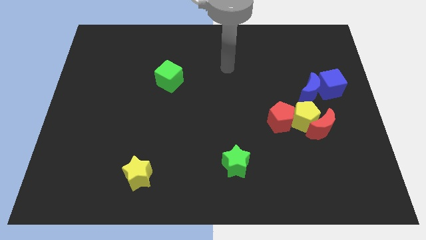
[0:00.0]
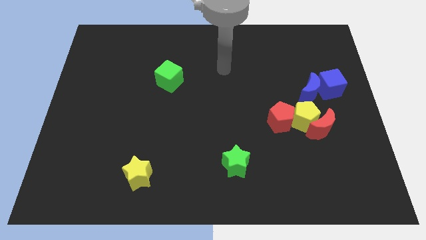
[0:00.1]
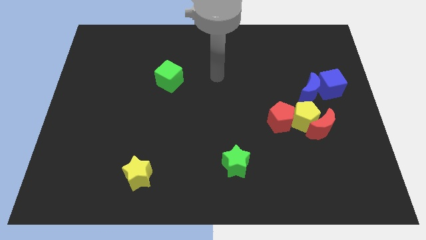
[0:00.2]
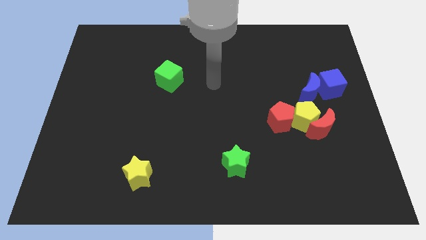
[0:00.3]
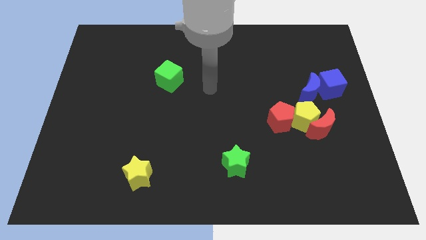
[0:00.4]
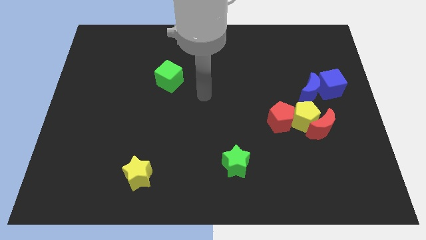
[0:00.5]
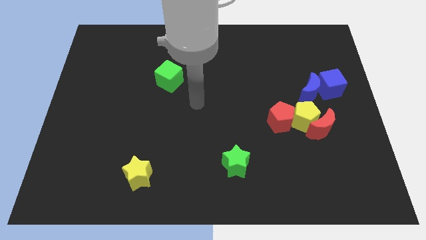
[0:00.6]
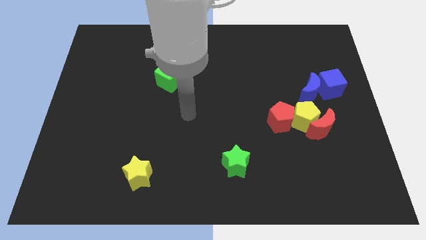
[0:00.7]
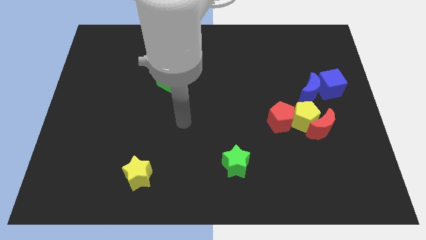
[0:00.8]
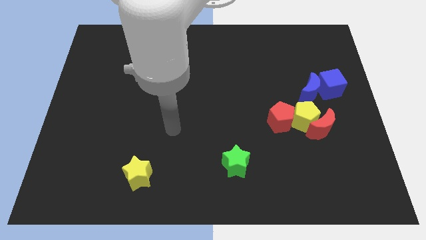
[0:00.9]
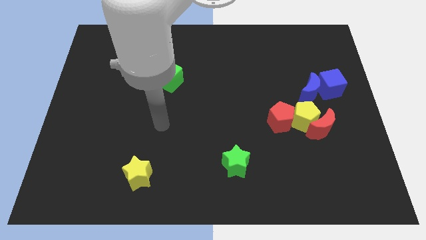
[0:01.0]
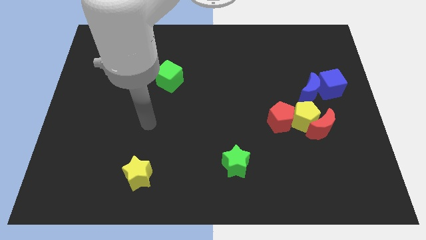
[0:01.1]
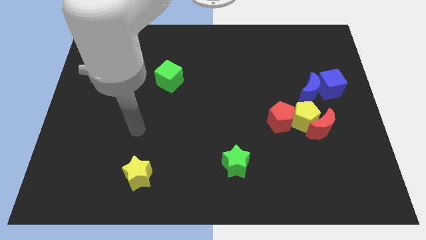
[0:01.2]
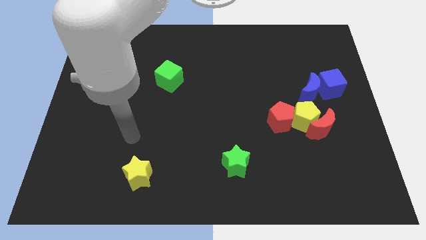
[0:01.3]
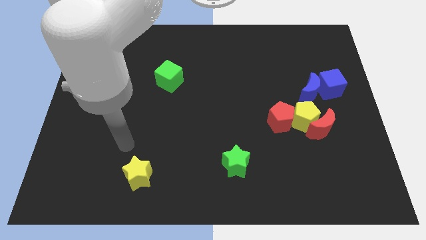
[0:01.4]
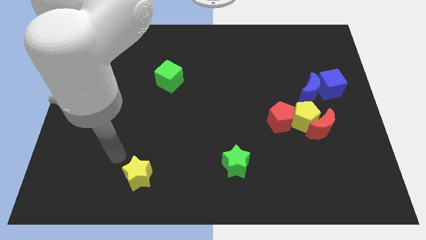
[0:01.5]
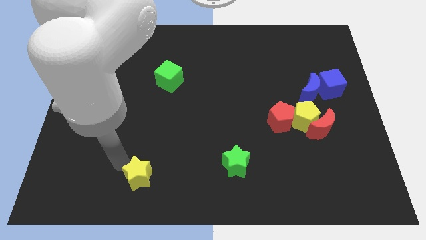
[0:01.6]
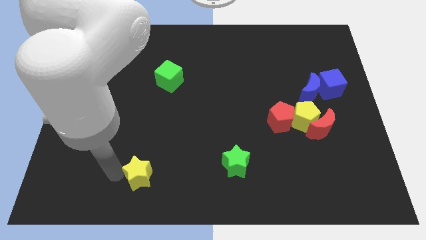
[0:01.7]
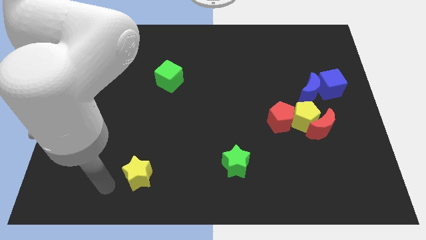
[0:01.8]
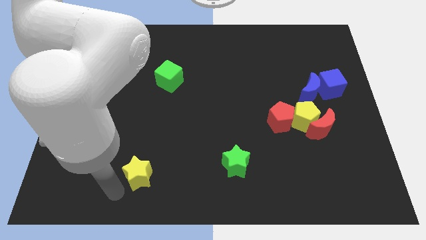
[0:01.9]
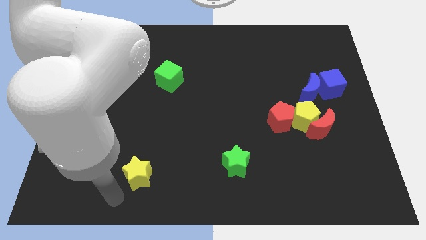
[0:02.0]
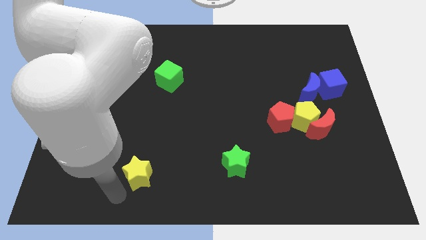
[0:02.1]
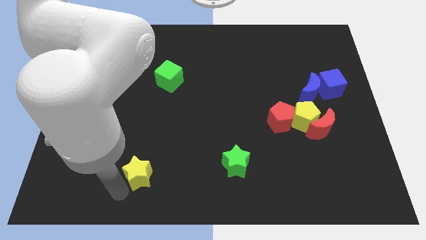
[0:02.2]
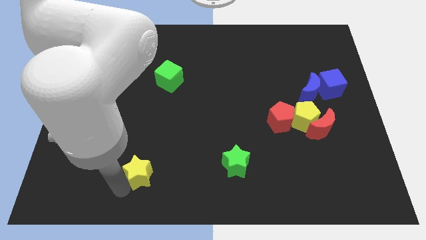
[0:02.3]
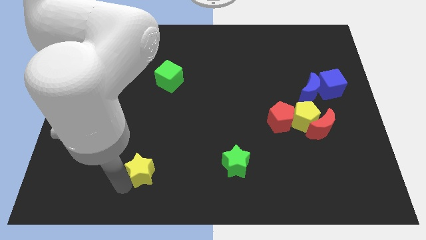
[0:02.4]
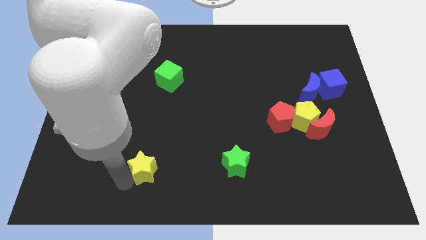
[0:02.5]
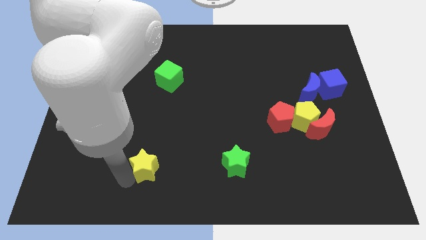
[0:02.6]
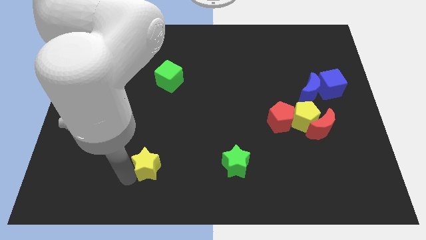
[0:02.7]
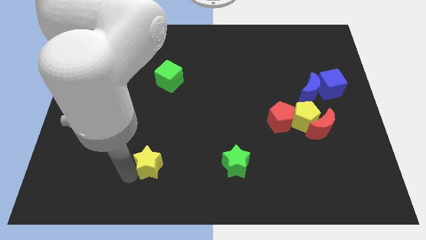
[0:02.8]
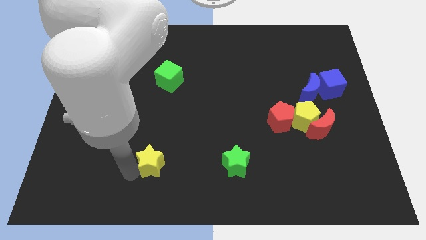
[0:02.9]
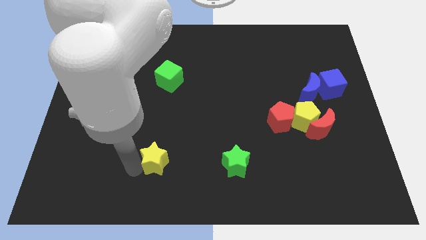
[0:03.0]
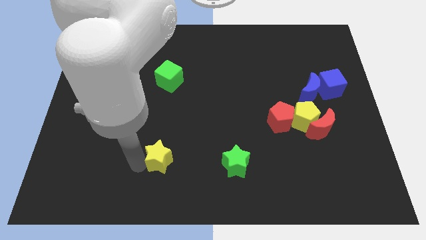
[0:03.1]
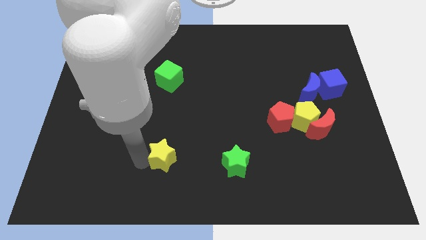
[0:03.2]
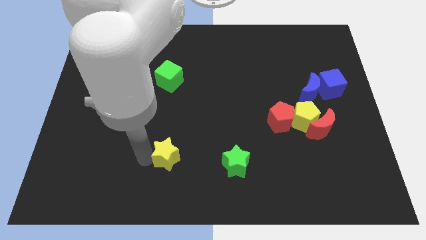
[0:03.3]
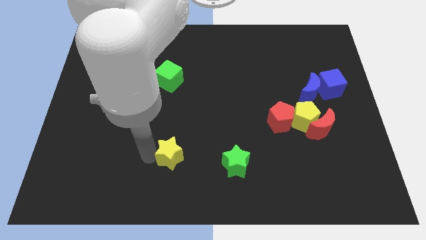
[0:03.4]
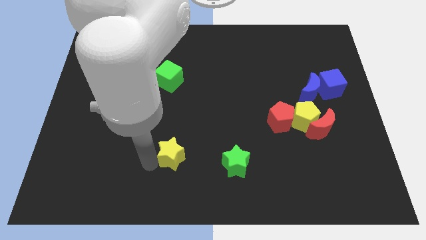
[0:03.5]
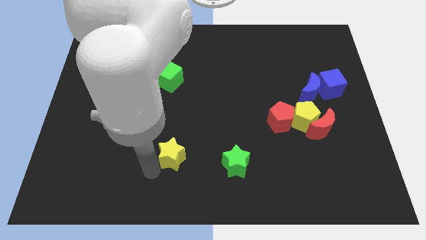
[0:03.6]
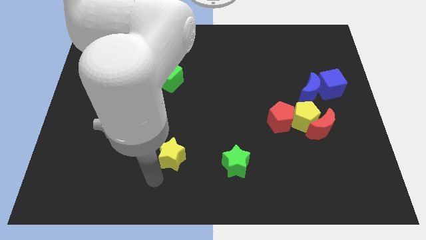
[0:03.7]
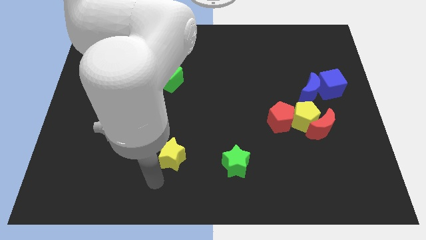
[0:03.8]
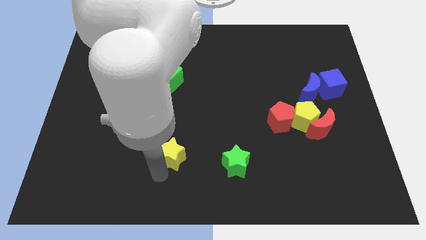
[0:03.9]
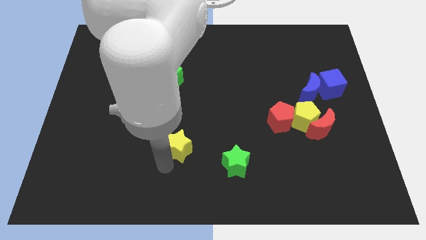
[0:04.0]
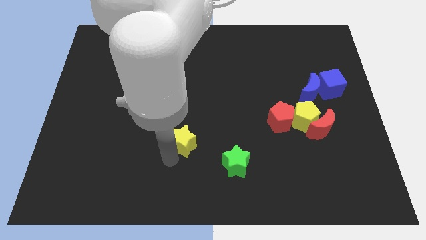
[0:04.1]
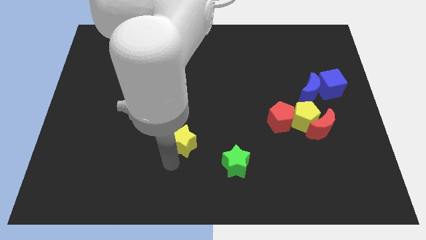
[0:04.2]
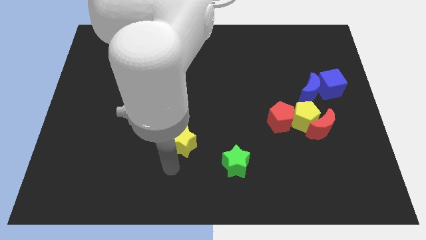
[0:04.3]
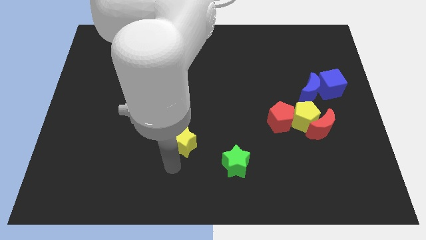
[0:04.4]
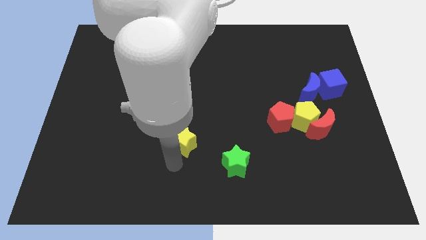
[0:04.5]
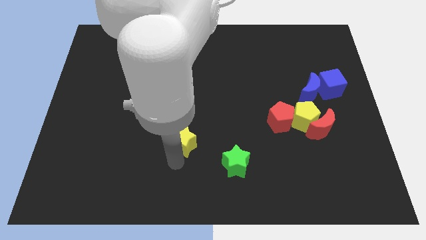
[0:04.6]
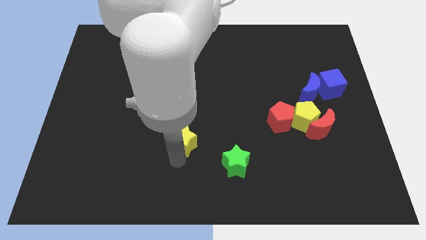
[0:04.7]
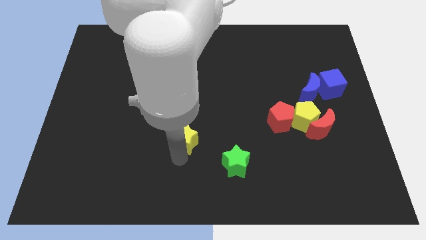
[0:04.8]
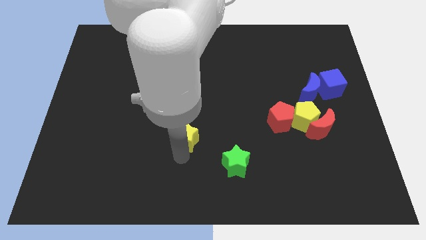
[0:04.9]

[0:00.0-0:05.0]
put the yellow star to the middle of the board

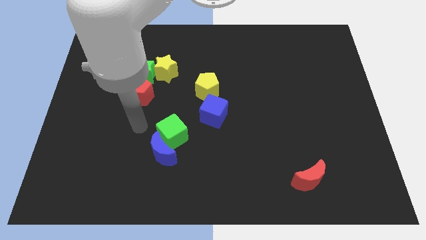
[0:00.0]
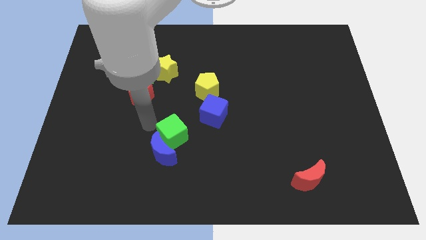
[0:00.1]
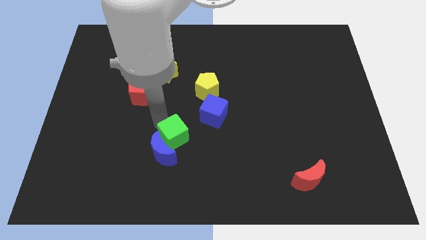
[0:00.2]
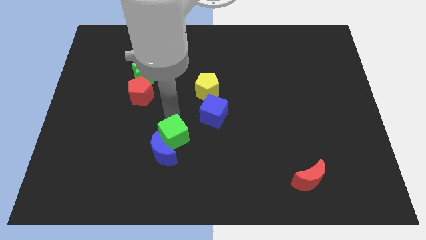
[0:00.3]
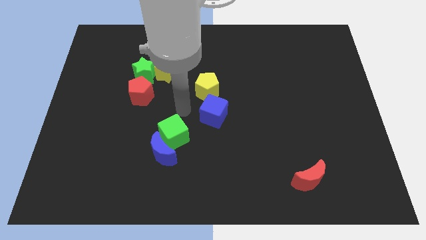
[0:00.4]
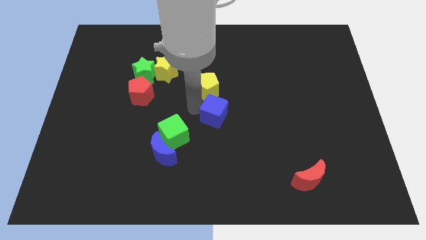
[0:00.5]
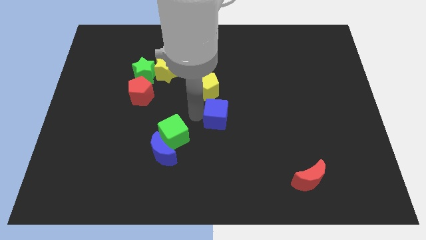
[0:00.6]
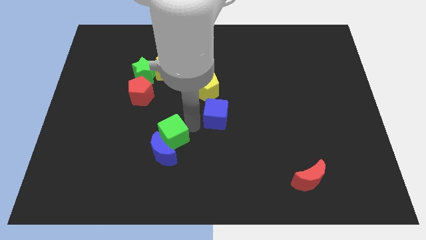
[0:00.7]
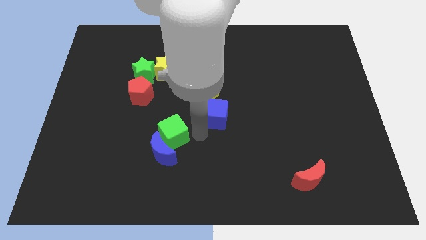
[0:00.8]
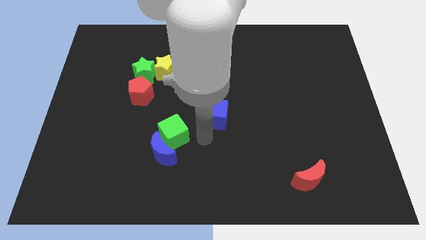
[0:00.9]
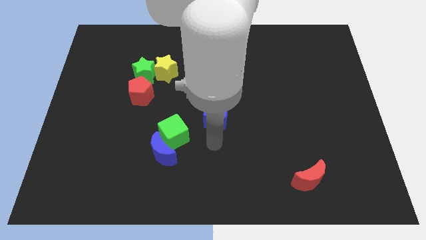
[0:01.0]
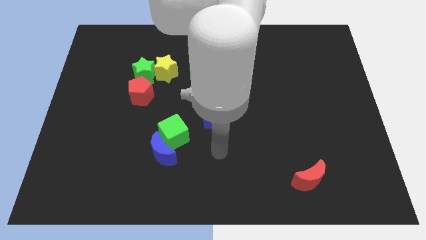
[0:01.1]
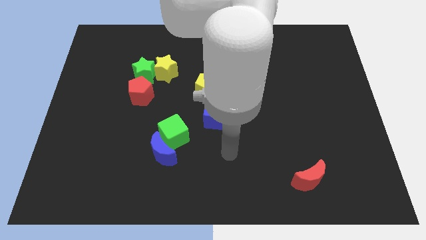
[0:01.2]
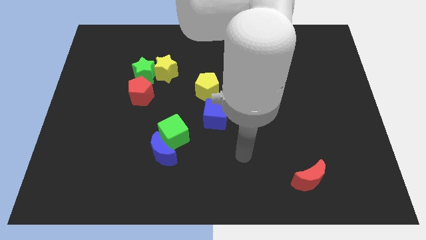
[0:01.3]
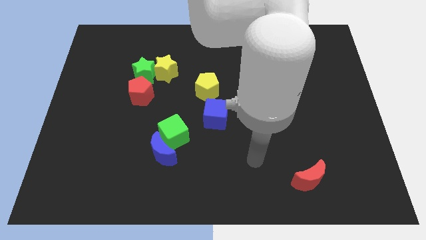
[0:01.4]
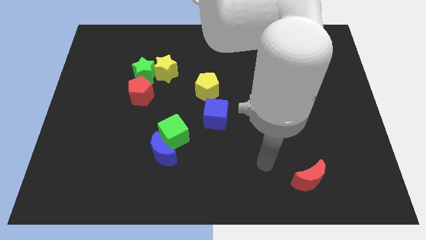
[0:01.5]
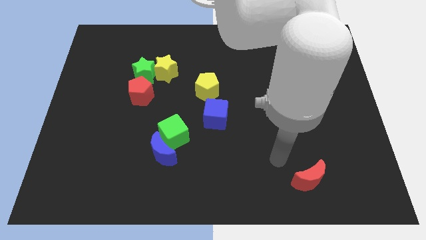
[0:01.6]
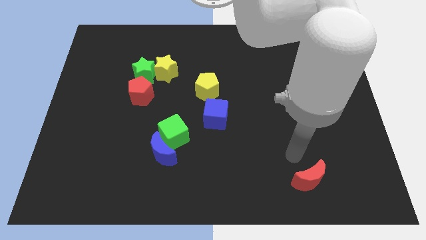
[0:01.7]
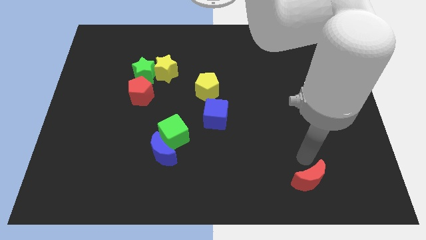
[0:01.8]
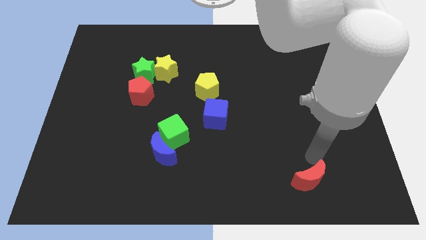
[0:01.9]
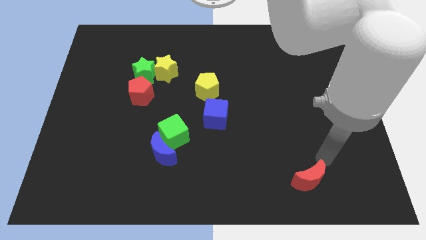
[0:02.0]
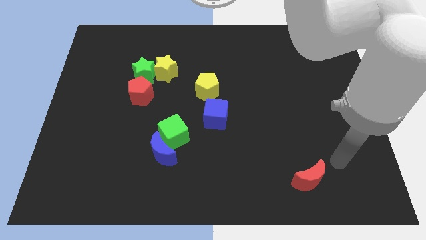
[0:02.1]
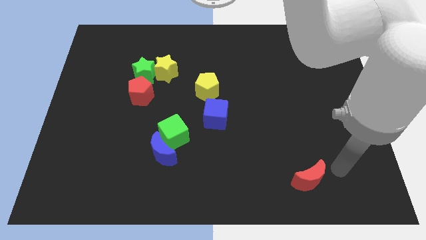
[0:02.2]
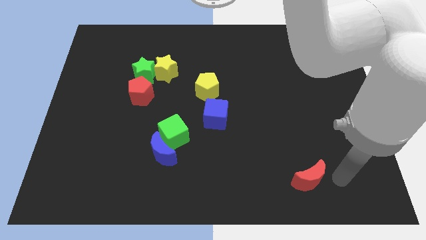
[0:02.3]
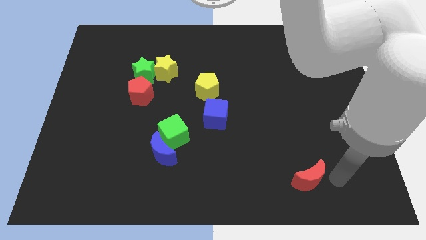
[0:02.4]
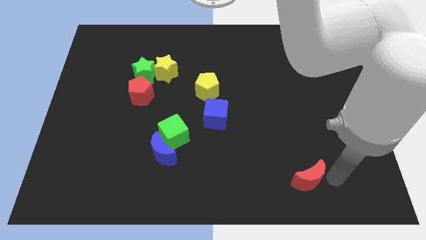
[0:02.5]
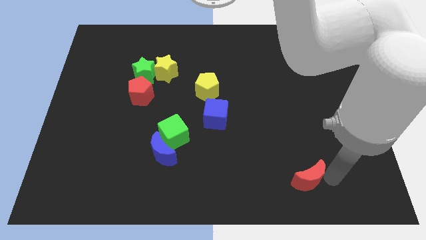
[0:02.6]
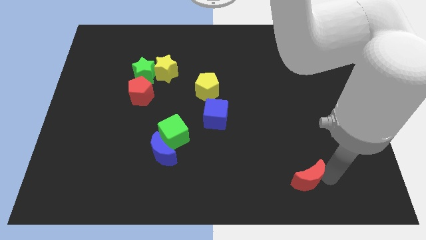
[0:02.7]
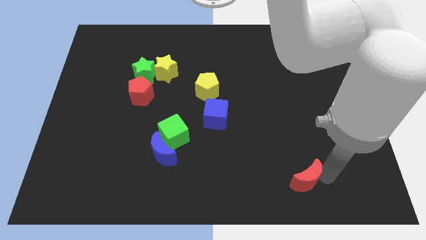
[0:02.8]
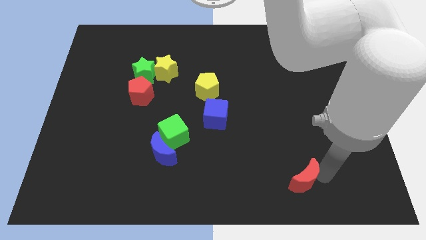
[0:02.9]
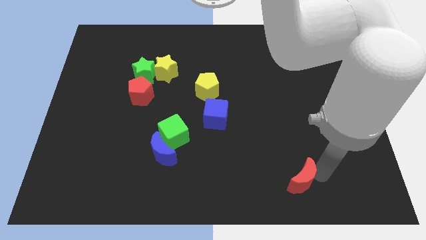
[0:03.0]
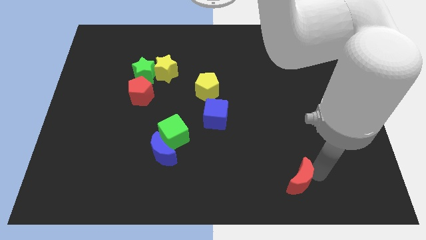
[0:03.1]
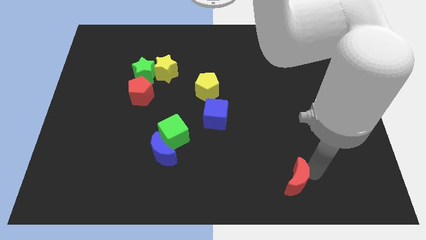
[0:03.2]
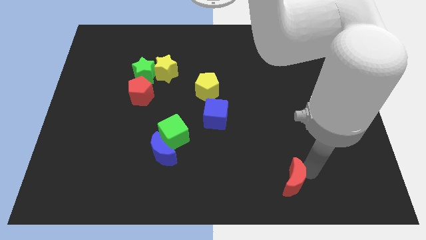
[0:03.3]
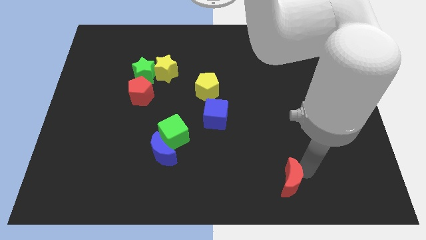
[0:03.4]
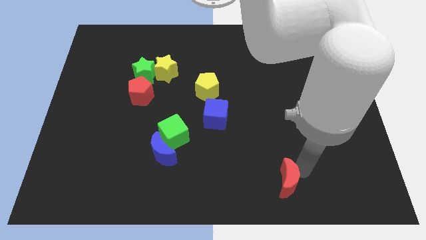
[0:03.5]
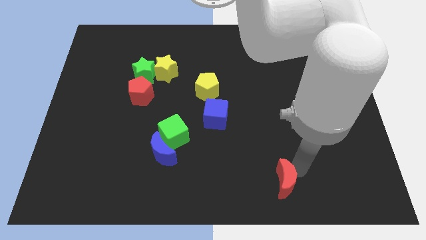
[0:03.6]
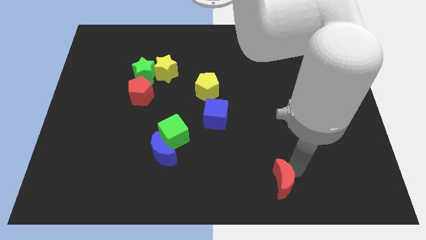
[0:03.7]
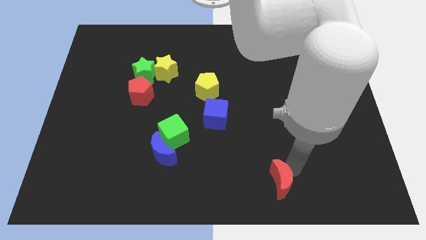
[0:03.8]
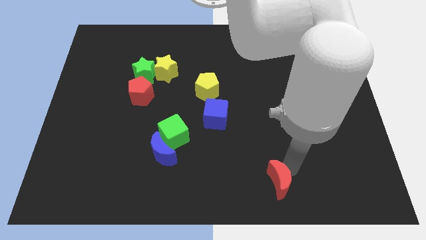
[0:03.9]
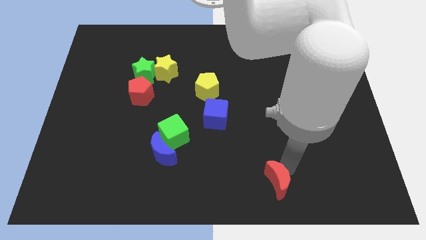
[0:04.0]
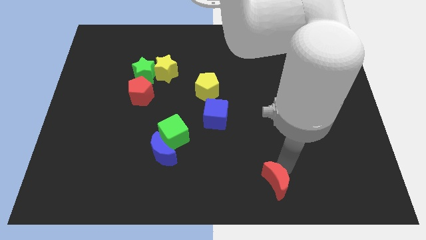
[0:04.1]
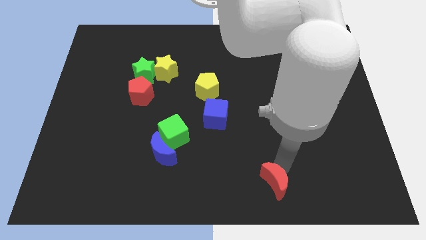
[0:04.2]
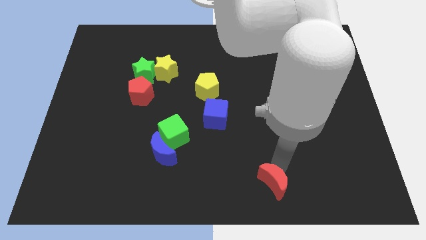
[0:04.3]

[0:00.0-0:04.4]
move the red moon to the bottom
